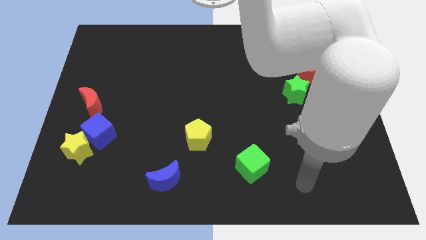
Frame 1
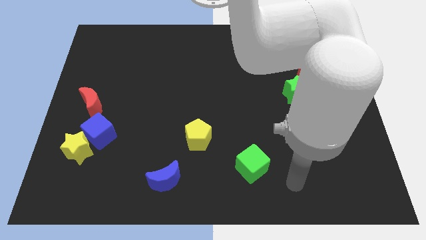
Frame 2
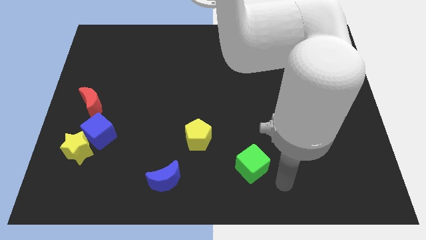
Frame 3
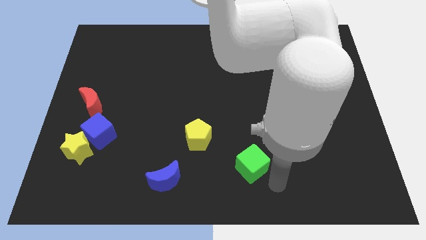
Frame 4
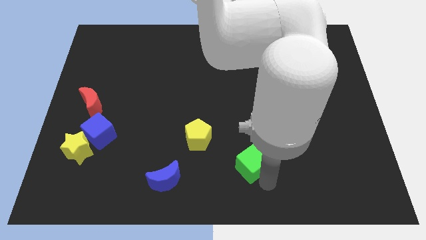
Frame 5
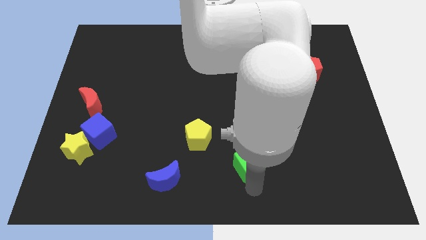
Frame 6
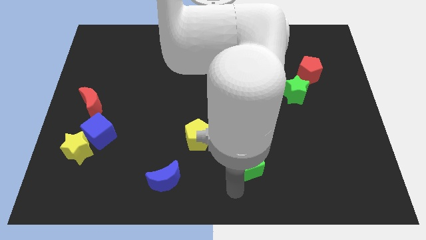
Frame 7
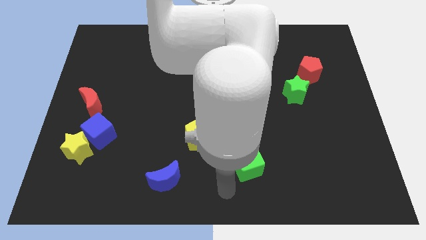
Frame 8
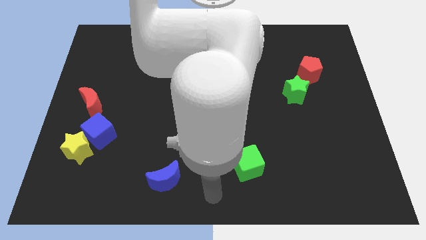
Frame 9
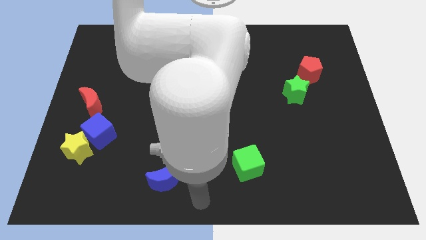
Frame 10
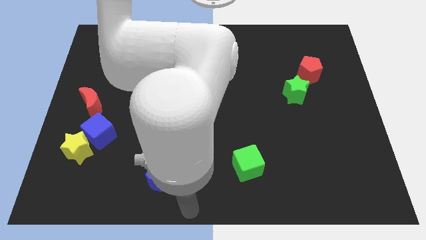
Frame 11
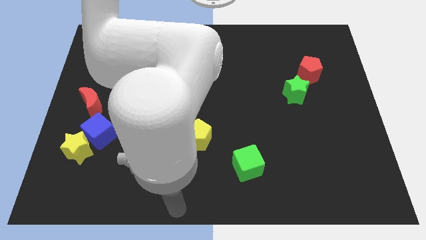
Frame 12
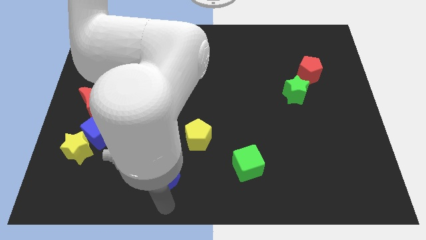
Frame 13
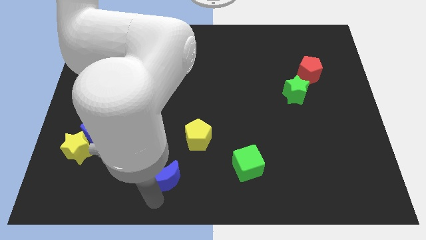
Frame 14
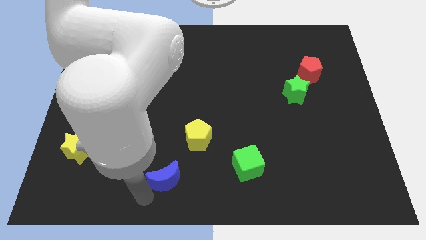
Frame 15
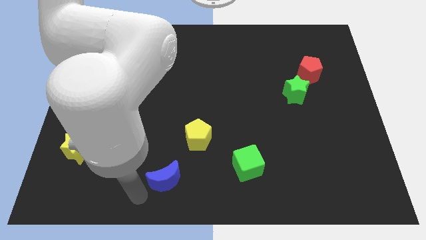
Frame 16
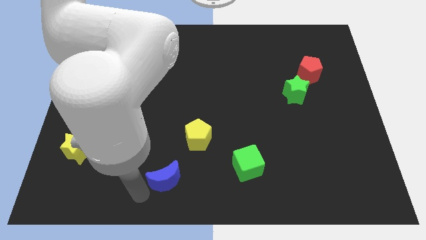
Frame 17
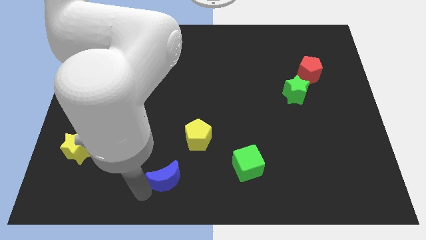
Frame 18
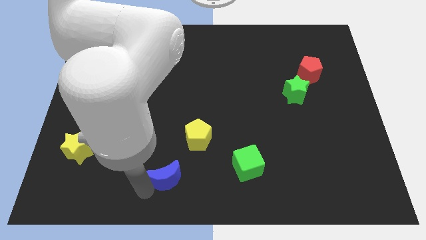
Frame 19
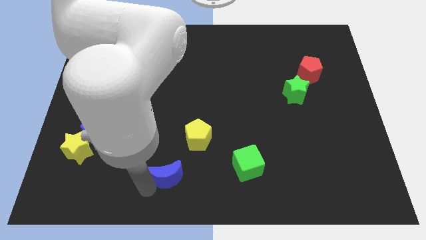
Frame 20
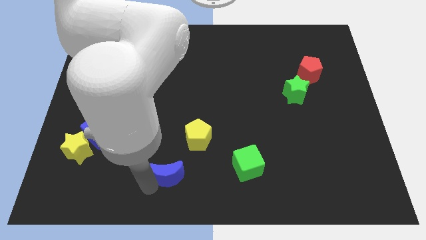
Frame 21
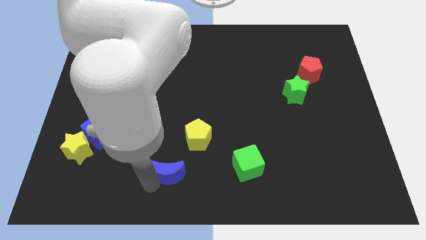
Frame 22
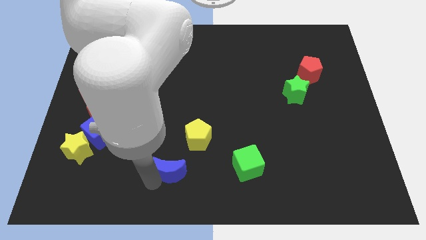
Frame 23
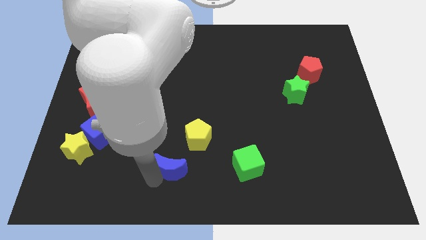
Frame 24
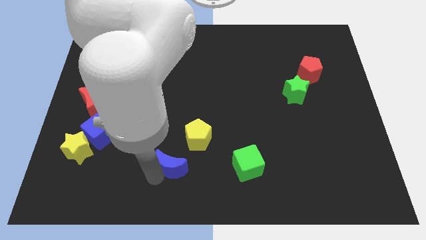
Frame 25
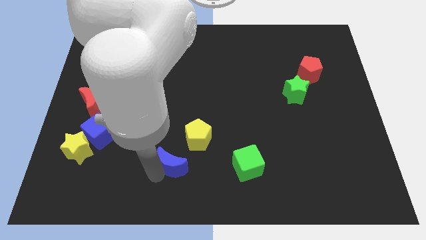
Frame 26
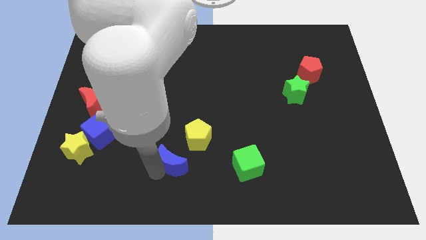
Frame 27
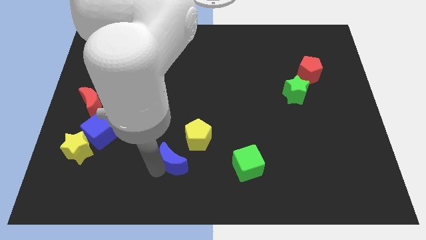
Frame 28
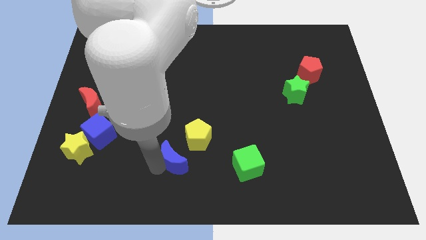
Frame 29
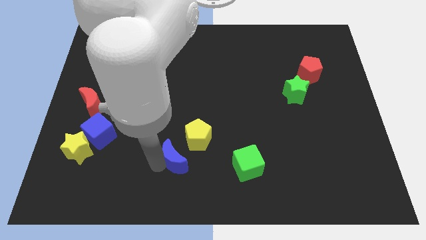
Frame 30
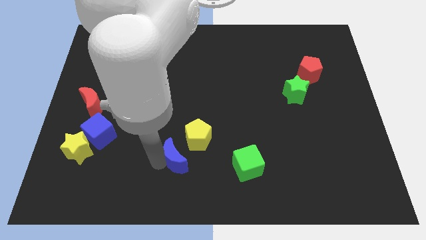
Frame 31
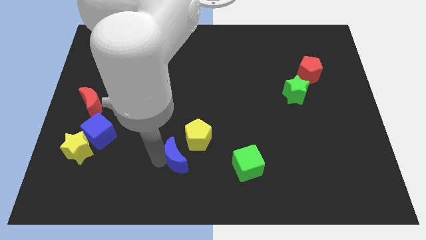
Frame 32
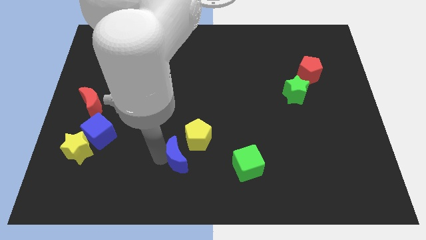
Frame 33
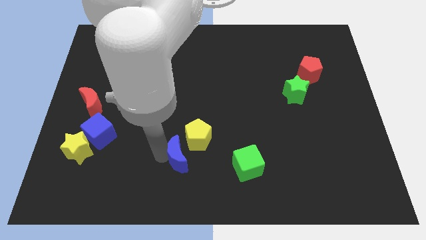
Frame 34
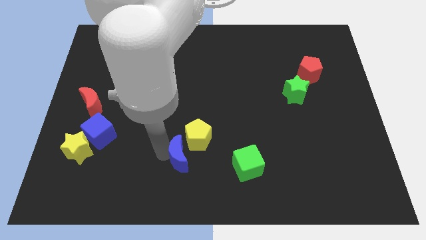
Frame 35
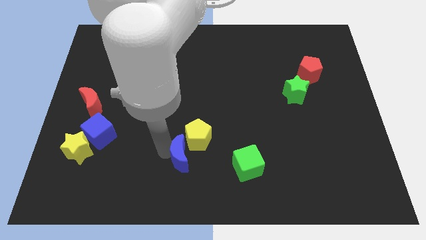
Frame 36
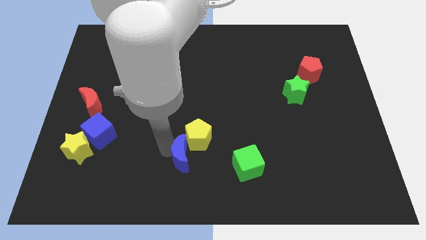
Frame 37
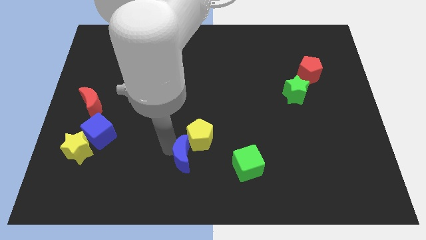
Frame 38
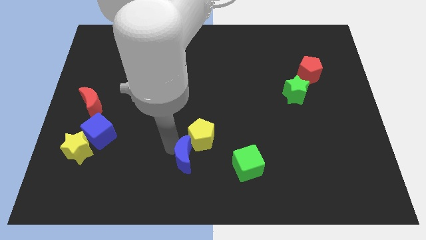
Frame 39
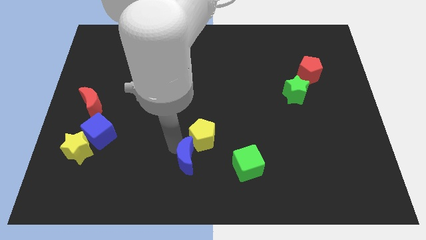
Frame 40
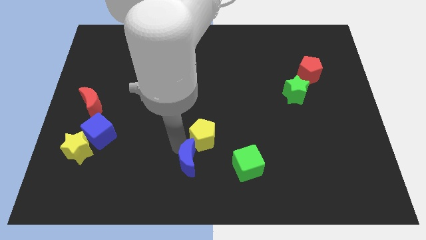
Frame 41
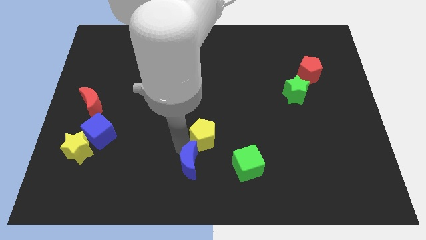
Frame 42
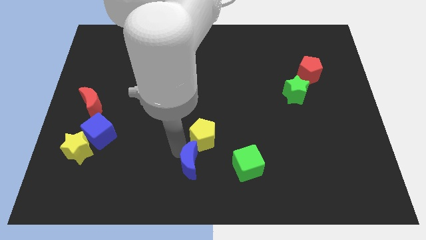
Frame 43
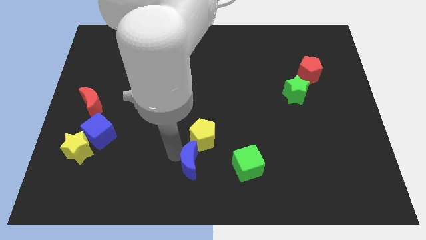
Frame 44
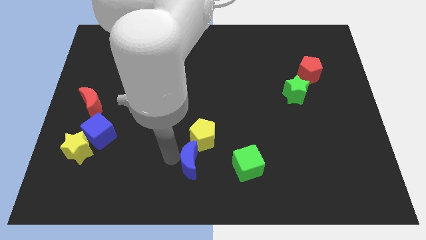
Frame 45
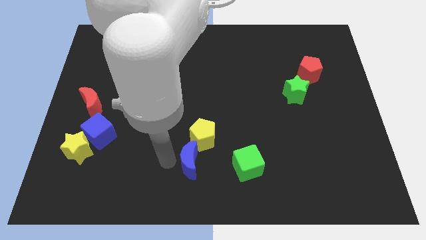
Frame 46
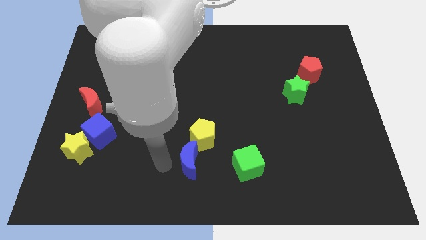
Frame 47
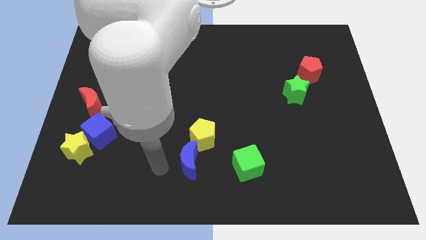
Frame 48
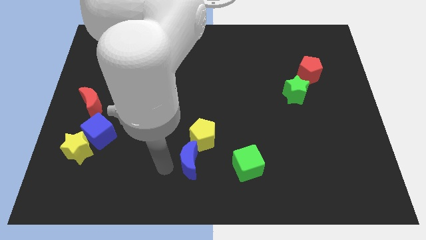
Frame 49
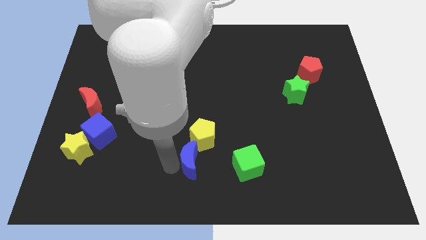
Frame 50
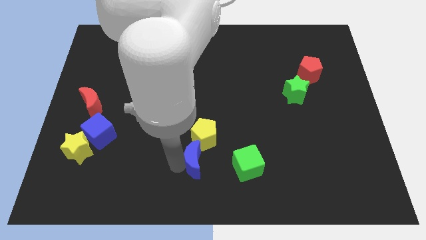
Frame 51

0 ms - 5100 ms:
slide the blue moon a bit diagonally up and right

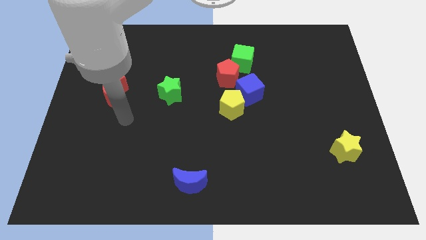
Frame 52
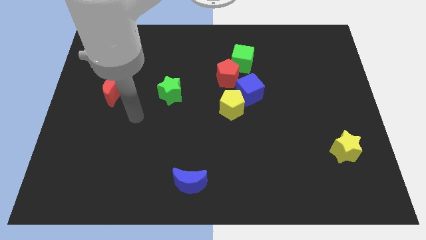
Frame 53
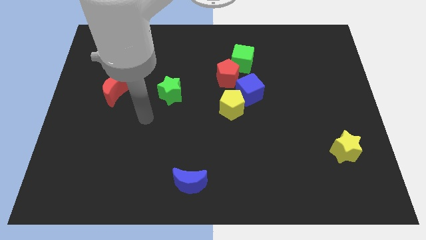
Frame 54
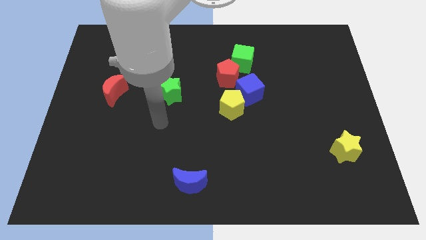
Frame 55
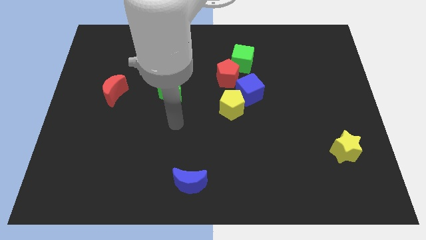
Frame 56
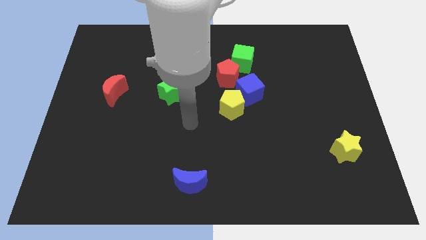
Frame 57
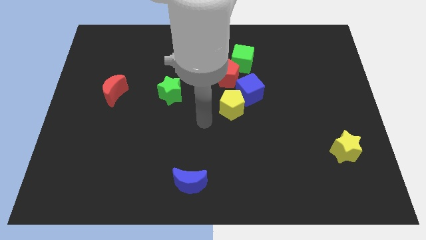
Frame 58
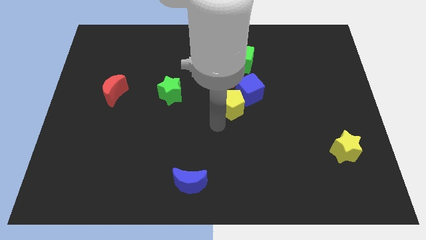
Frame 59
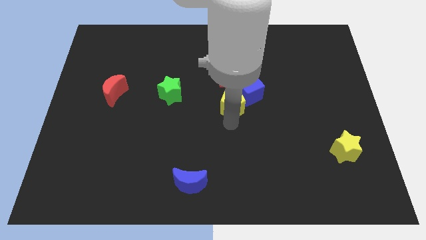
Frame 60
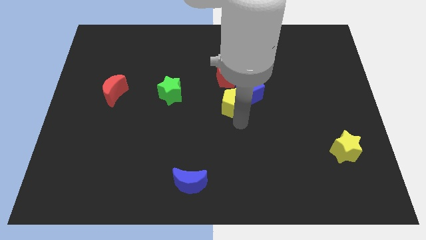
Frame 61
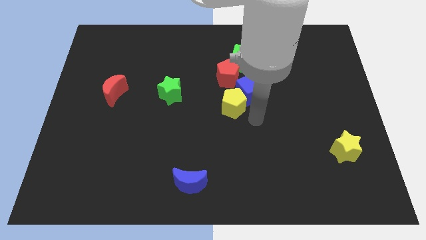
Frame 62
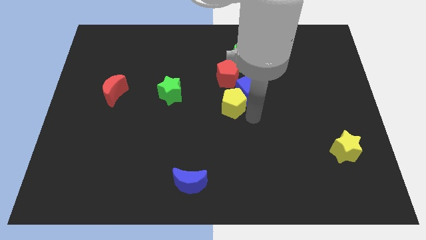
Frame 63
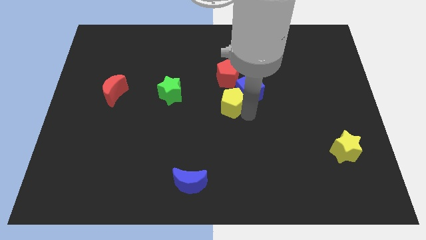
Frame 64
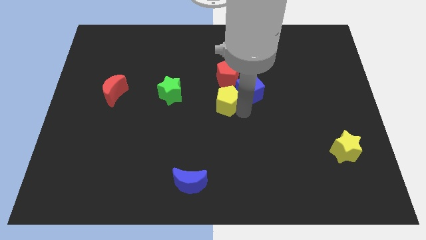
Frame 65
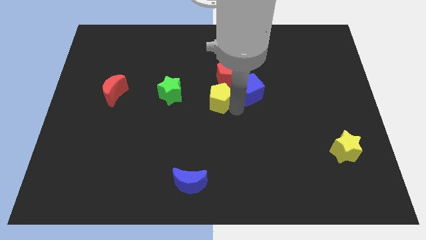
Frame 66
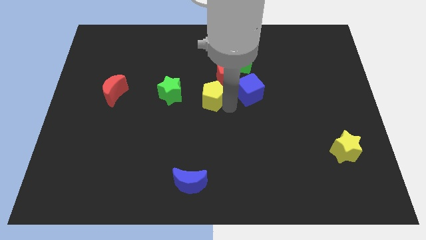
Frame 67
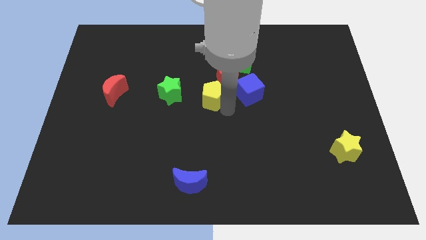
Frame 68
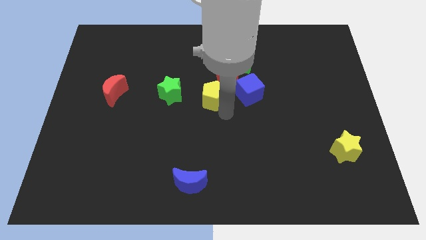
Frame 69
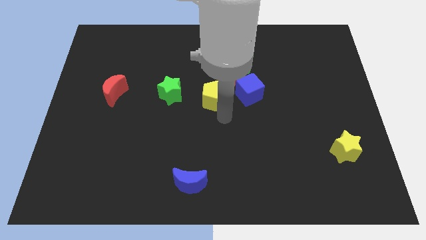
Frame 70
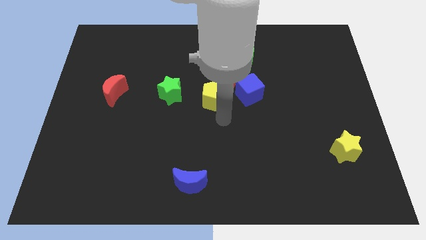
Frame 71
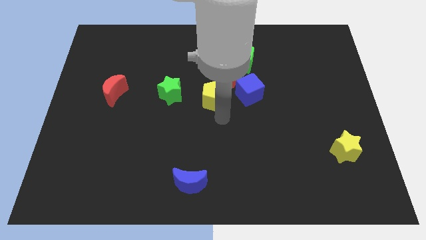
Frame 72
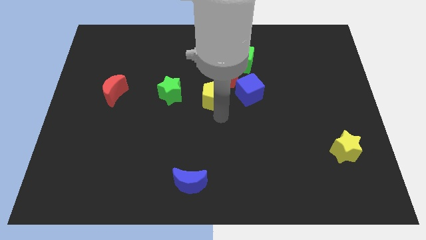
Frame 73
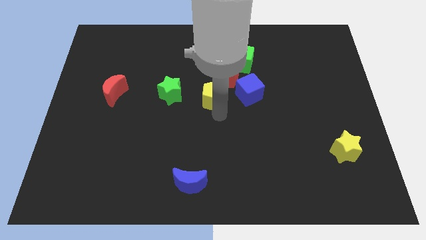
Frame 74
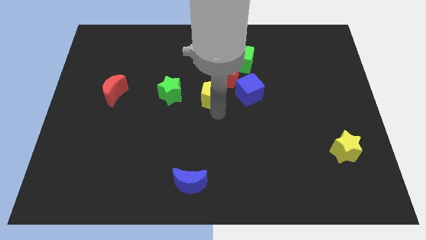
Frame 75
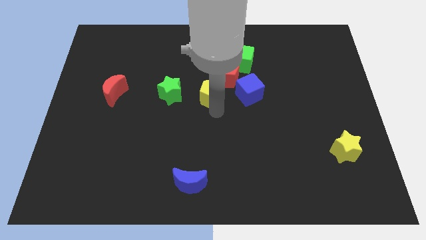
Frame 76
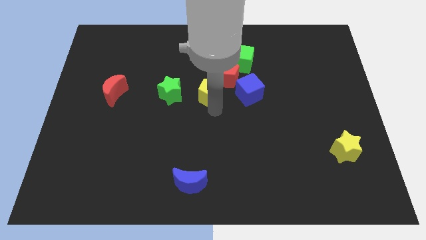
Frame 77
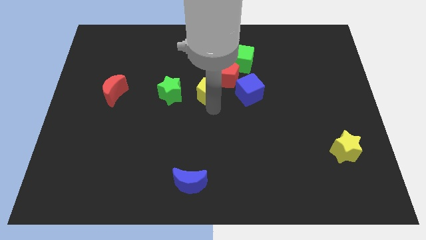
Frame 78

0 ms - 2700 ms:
slide the yellow pentagon slightly upwards and left diagonally

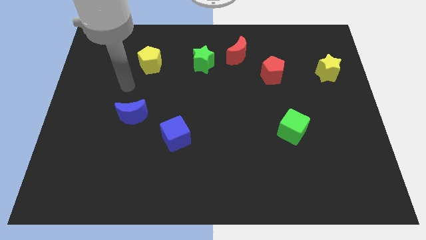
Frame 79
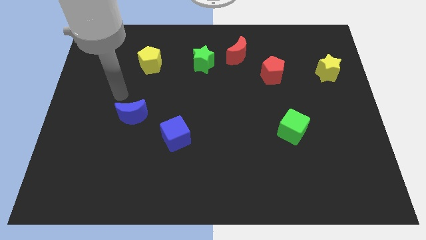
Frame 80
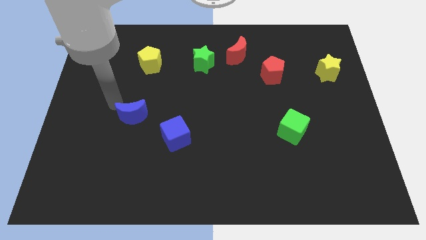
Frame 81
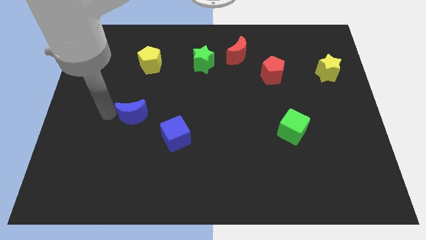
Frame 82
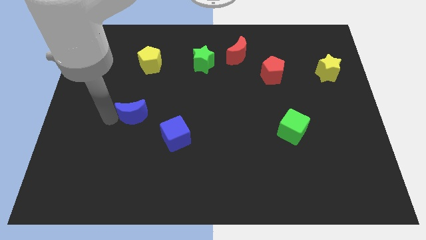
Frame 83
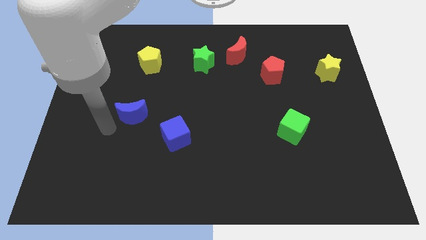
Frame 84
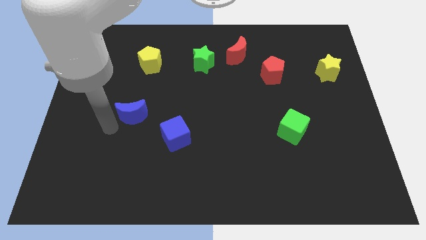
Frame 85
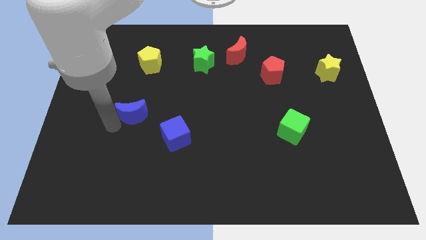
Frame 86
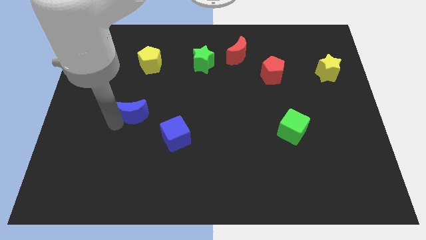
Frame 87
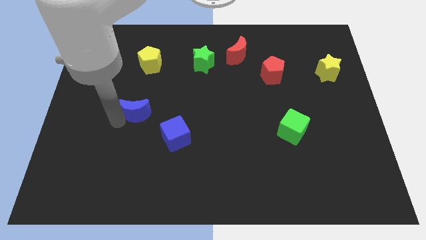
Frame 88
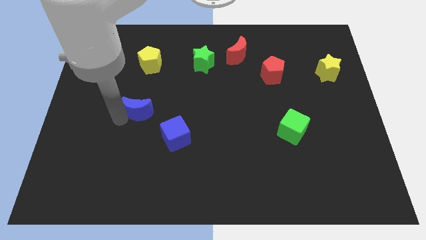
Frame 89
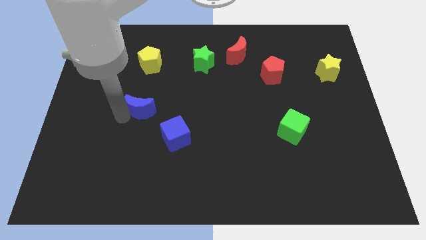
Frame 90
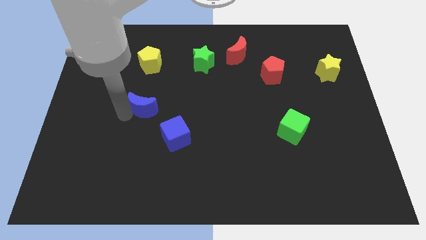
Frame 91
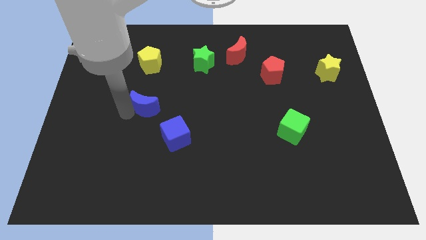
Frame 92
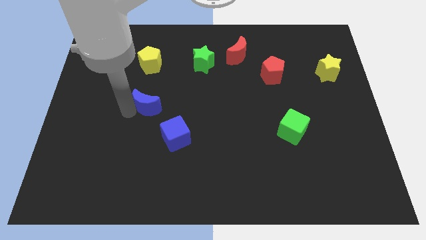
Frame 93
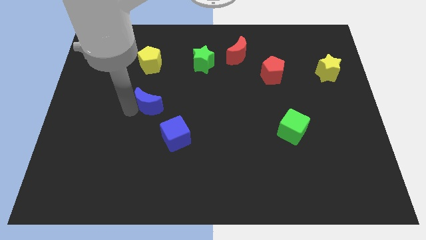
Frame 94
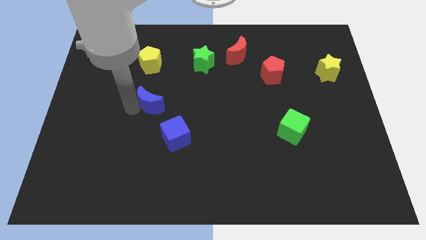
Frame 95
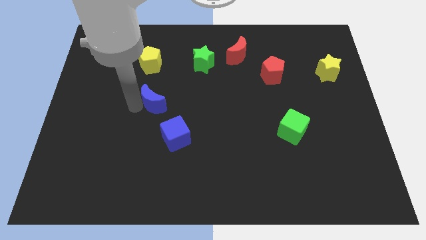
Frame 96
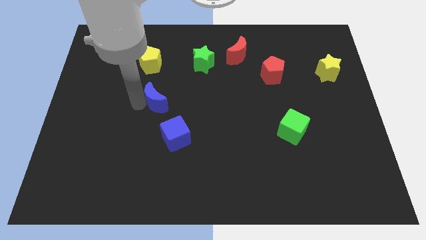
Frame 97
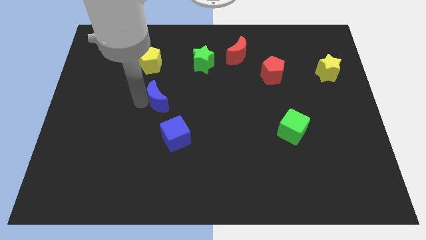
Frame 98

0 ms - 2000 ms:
slide the blue moon slightly up and then right
